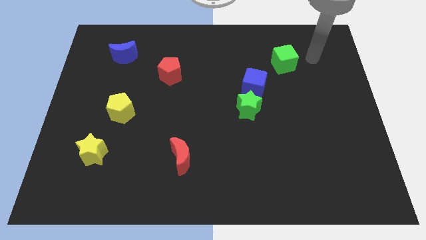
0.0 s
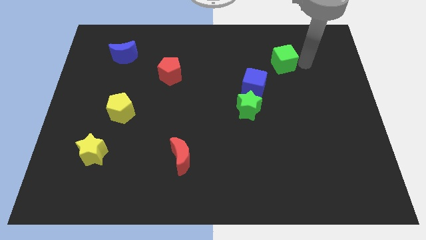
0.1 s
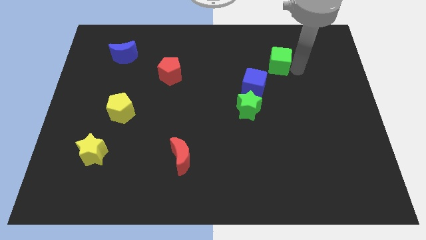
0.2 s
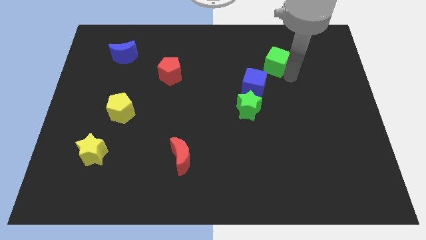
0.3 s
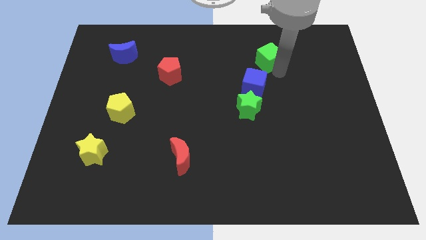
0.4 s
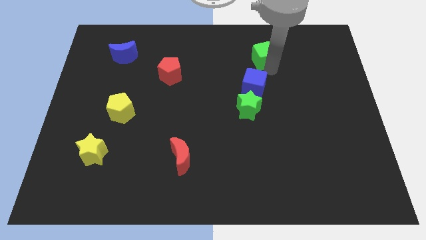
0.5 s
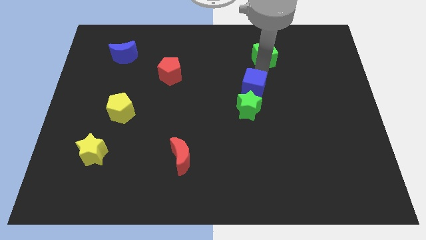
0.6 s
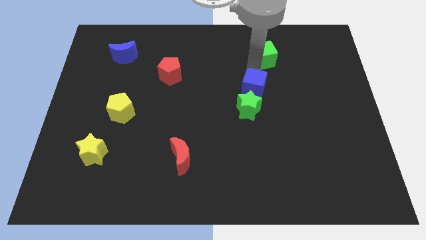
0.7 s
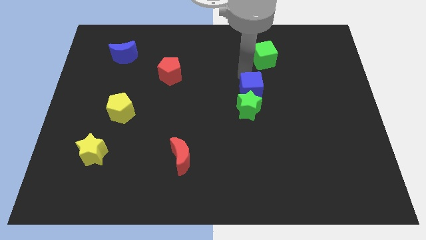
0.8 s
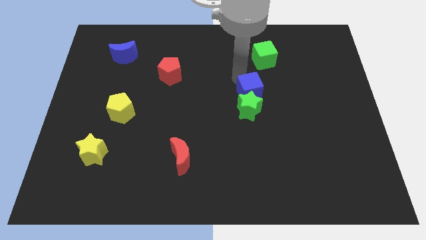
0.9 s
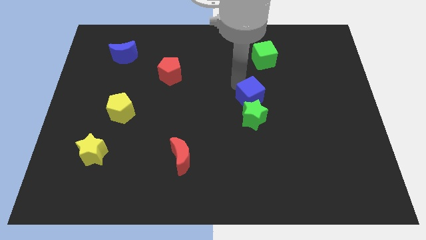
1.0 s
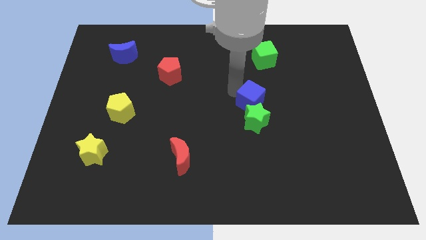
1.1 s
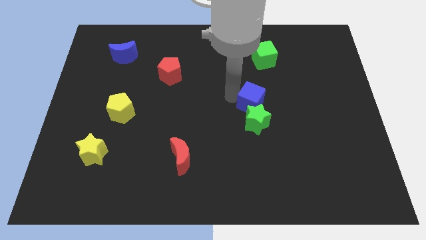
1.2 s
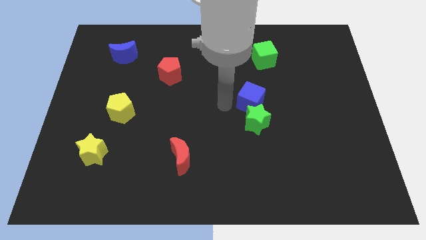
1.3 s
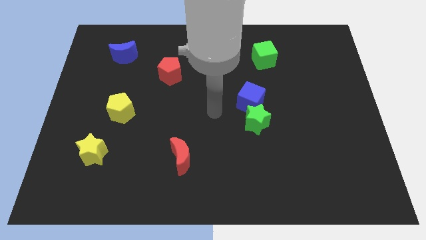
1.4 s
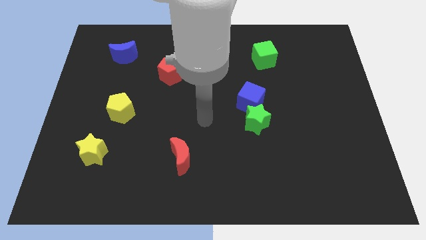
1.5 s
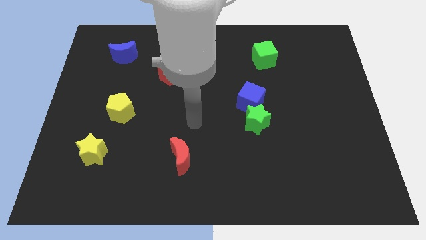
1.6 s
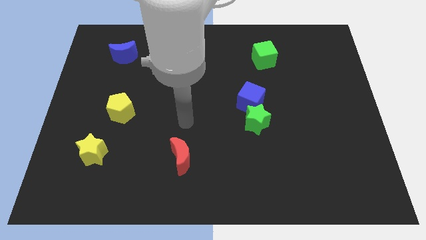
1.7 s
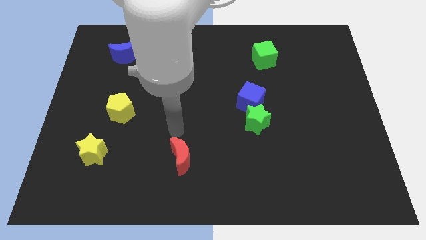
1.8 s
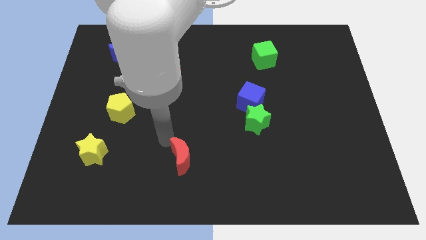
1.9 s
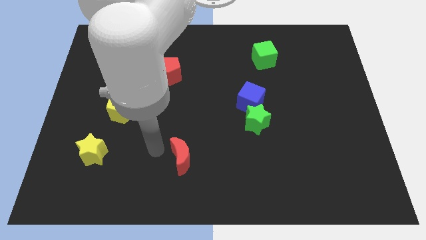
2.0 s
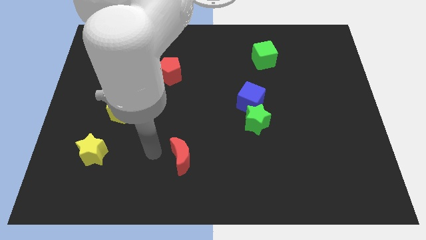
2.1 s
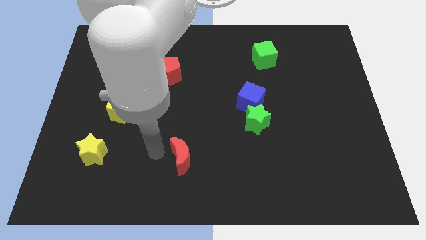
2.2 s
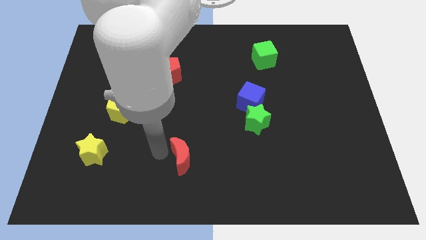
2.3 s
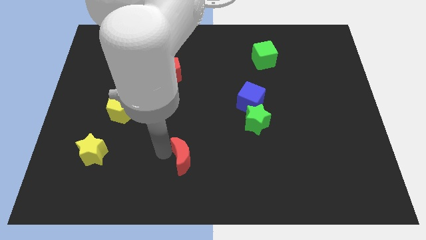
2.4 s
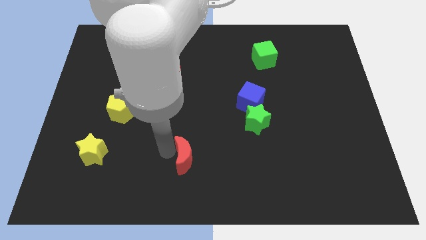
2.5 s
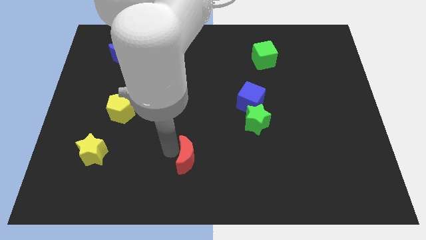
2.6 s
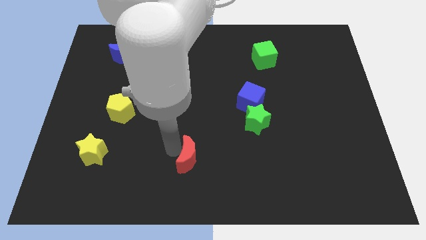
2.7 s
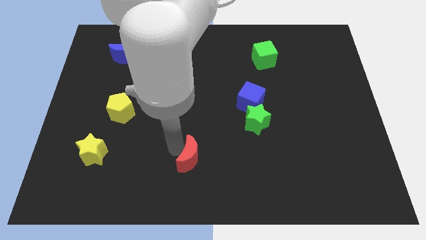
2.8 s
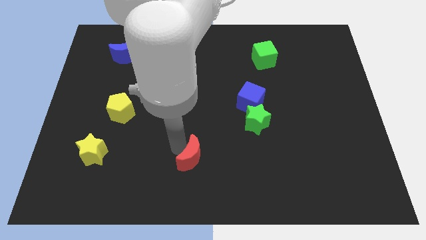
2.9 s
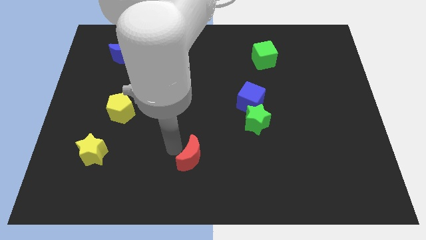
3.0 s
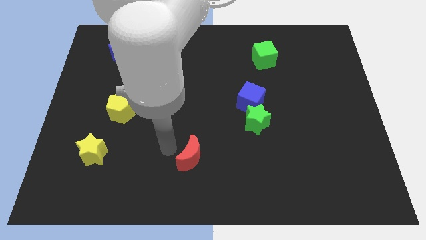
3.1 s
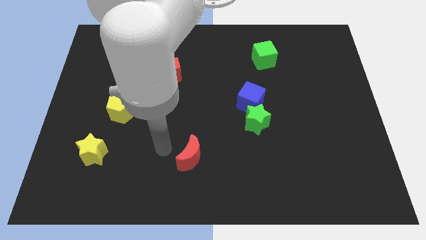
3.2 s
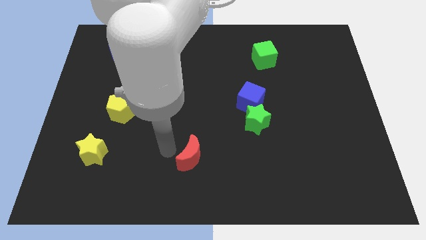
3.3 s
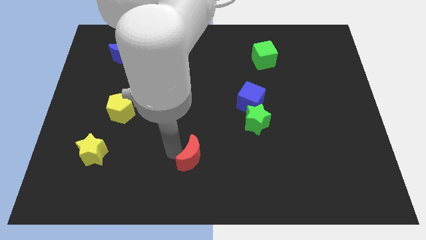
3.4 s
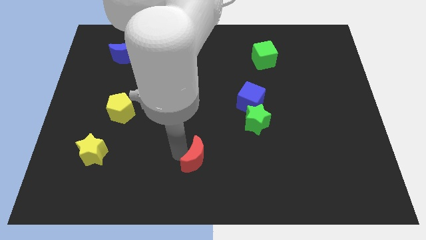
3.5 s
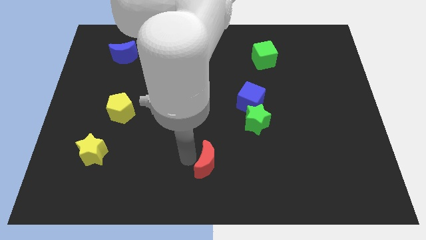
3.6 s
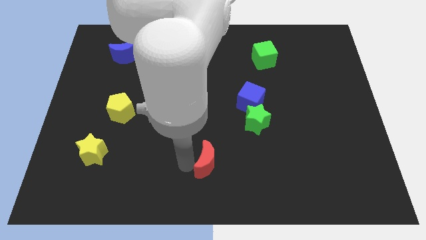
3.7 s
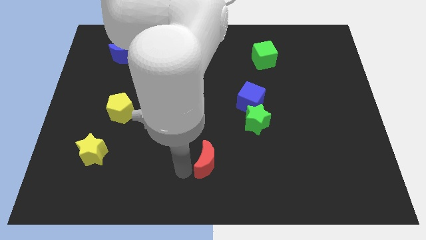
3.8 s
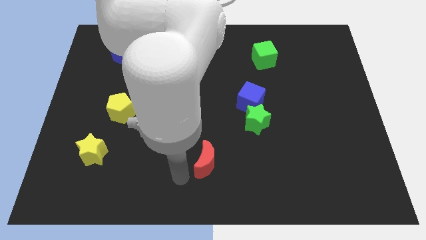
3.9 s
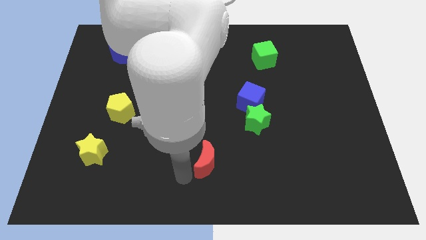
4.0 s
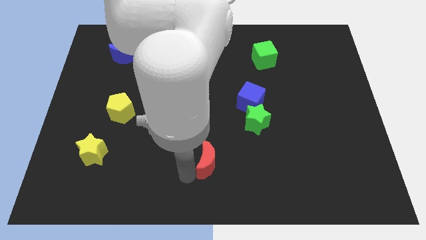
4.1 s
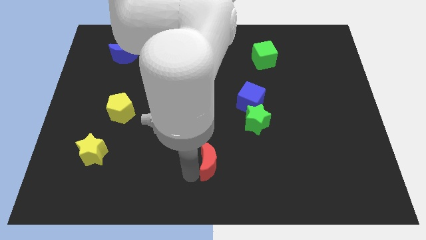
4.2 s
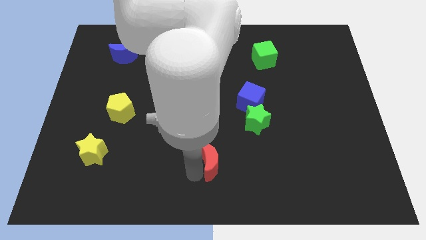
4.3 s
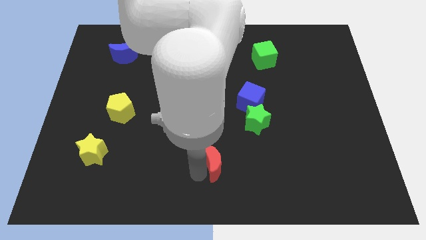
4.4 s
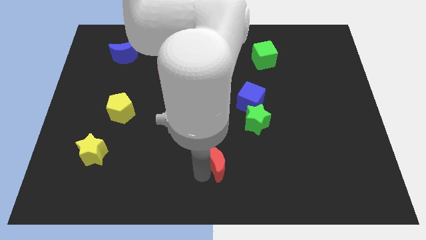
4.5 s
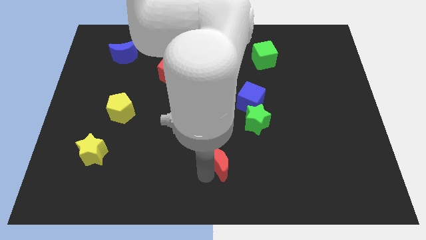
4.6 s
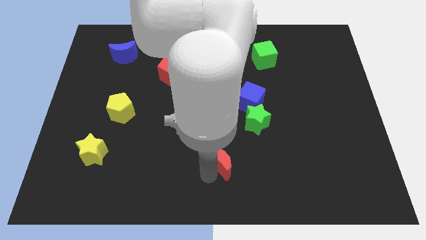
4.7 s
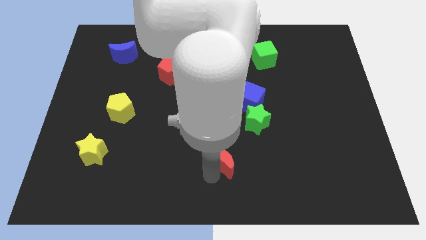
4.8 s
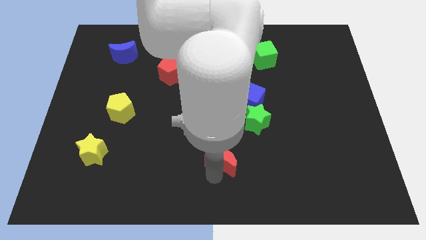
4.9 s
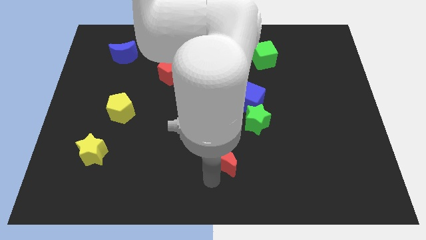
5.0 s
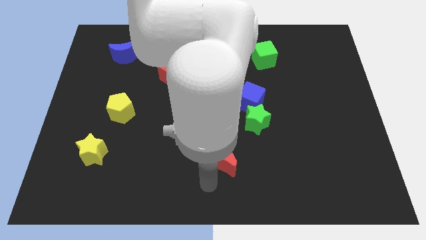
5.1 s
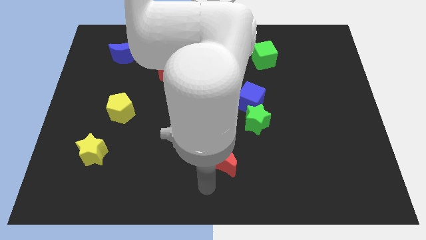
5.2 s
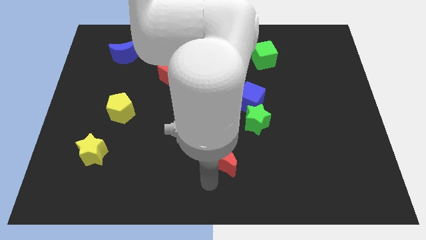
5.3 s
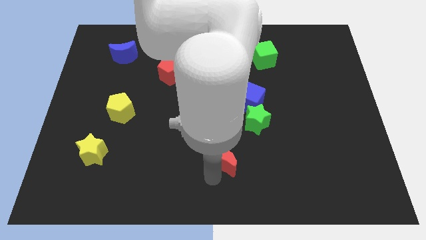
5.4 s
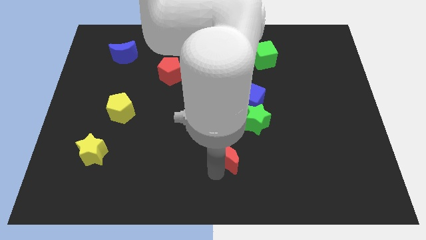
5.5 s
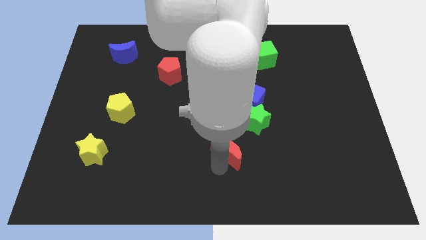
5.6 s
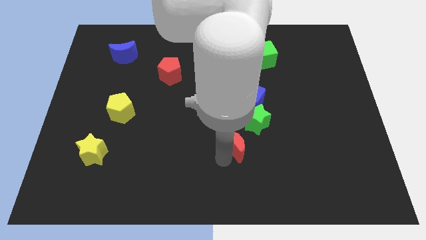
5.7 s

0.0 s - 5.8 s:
put the red moon to the bottom side of the blue cube

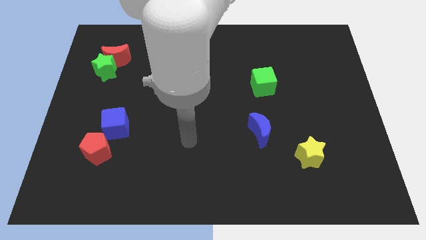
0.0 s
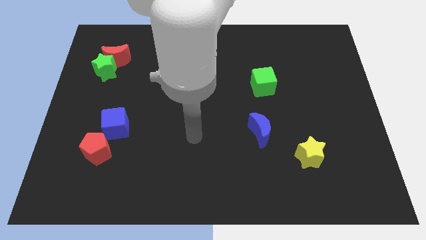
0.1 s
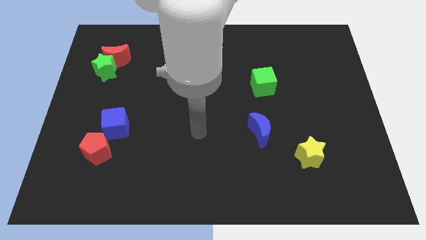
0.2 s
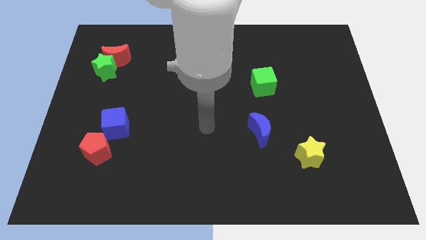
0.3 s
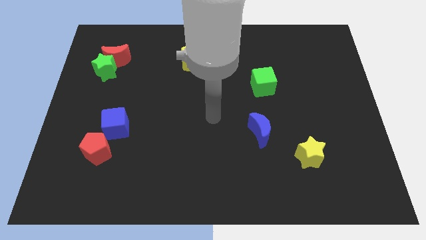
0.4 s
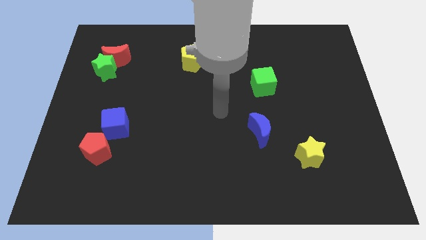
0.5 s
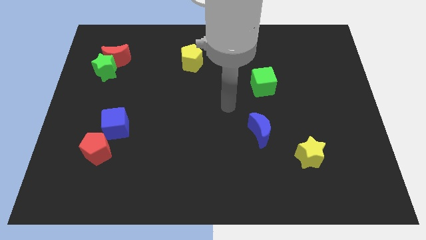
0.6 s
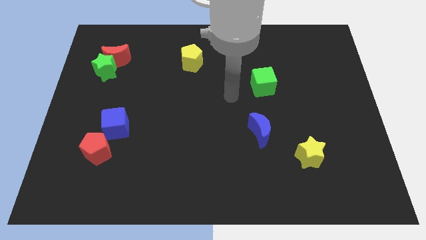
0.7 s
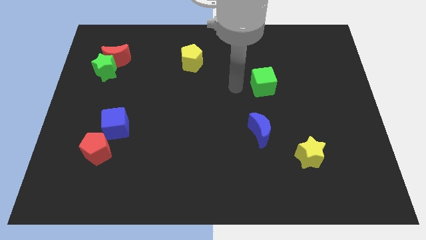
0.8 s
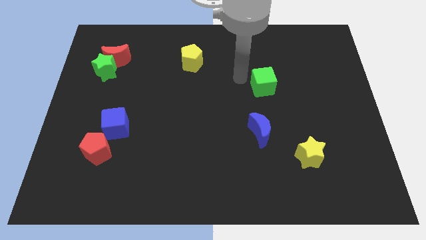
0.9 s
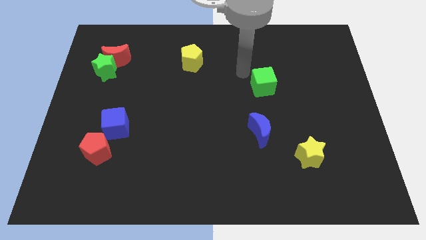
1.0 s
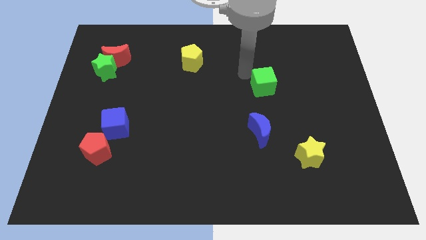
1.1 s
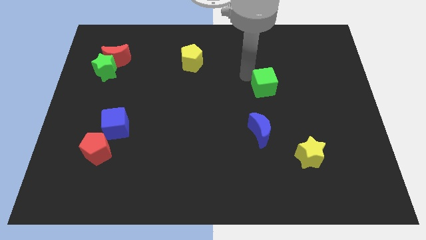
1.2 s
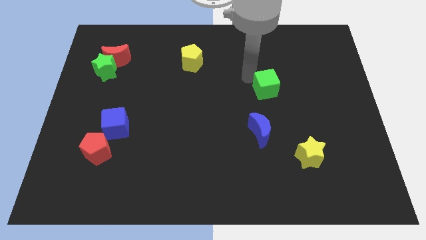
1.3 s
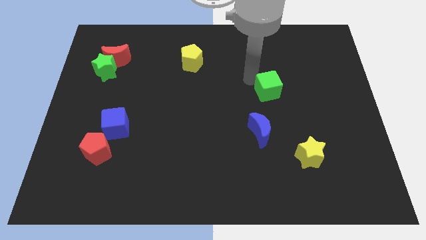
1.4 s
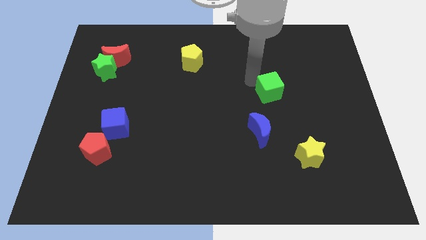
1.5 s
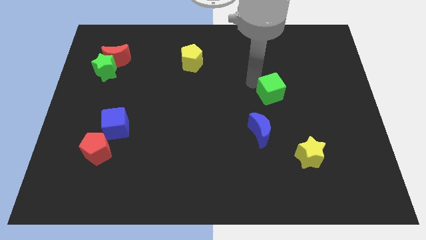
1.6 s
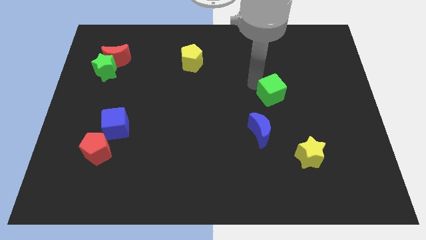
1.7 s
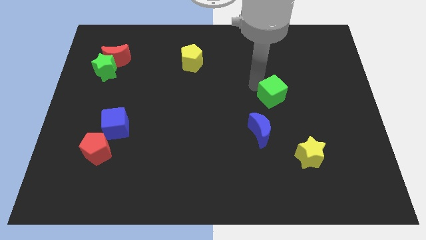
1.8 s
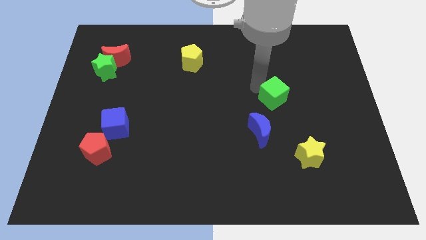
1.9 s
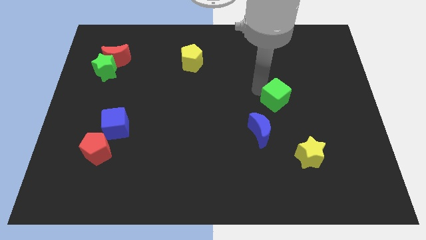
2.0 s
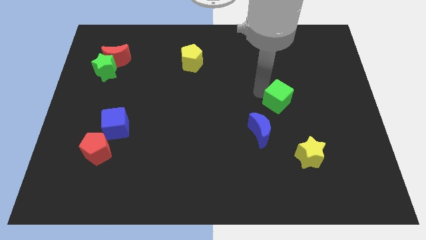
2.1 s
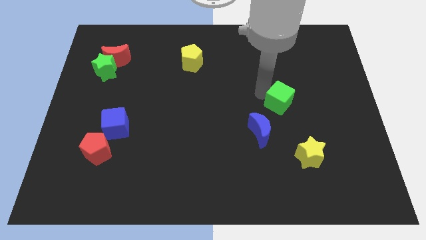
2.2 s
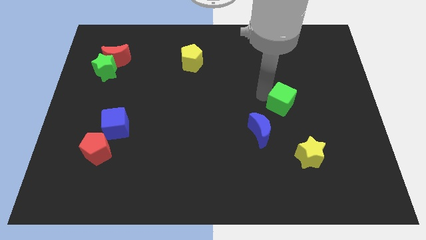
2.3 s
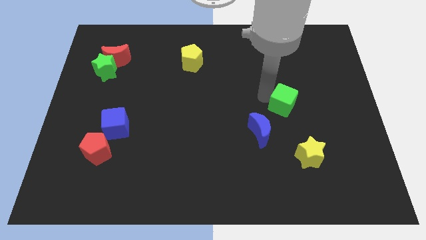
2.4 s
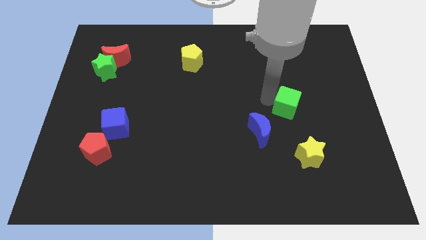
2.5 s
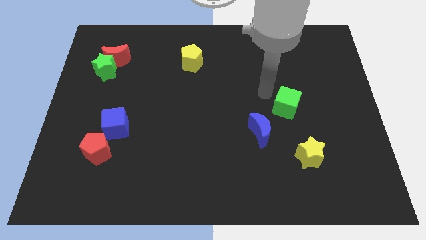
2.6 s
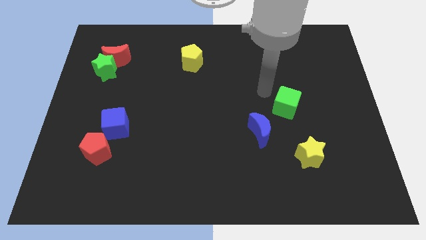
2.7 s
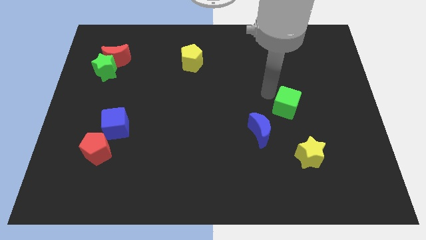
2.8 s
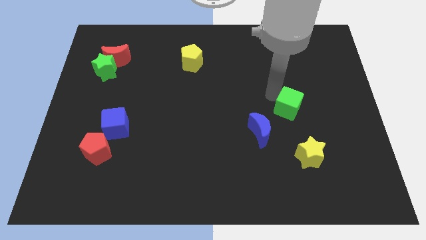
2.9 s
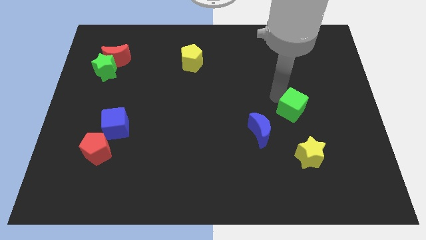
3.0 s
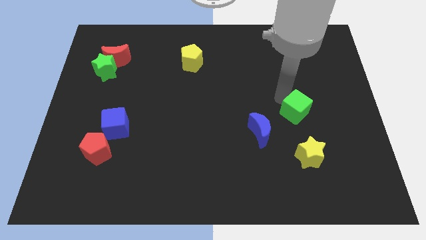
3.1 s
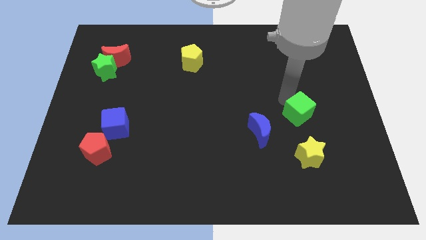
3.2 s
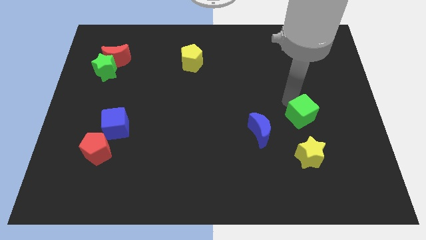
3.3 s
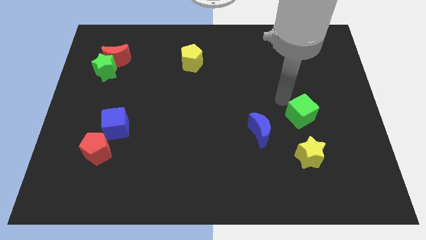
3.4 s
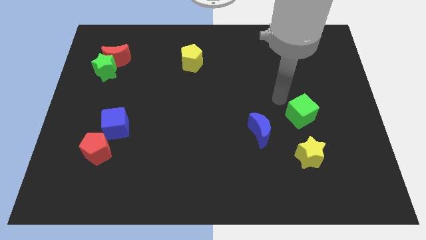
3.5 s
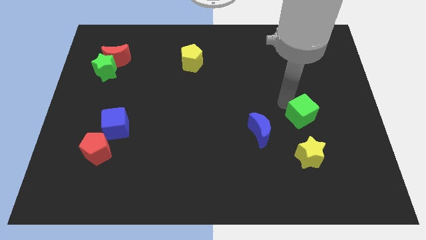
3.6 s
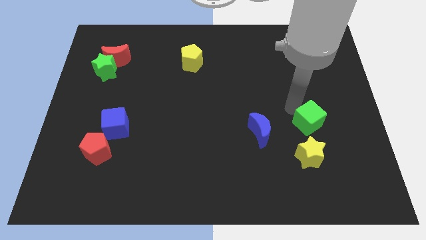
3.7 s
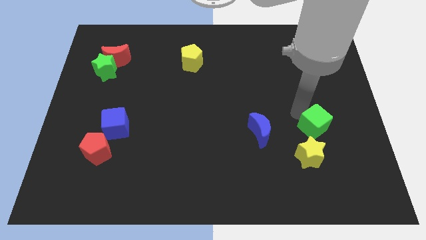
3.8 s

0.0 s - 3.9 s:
push the green cube diagonally up and to the right of the yellow star
